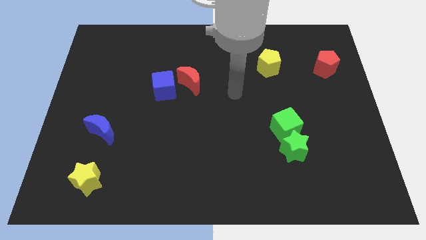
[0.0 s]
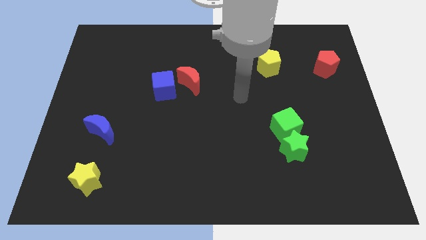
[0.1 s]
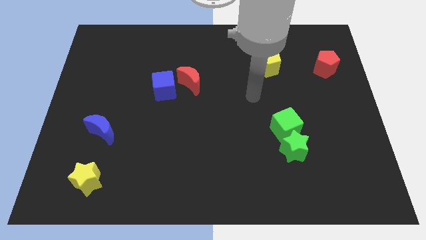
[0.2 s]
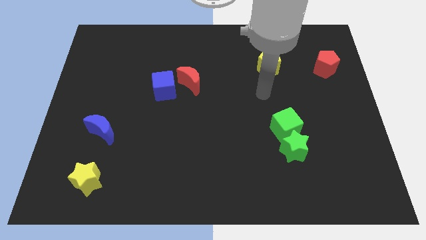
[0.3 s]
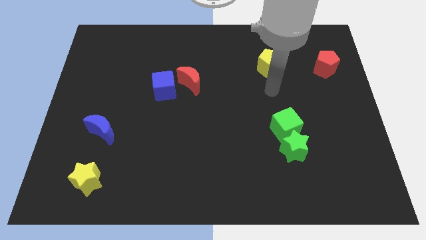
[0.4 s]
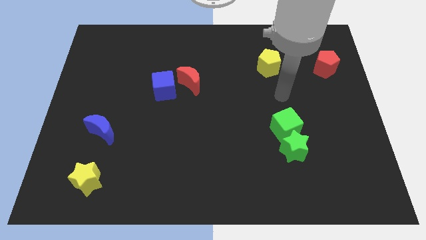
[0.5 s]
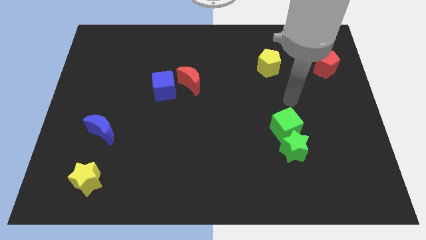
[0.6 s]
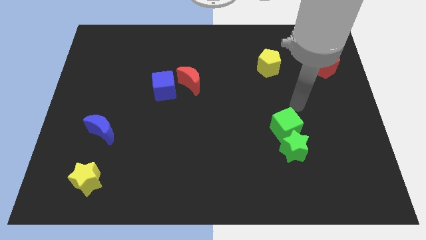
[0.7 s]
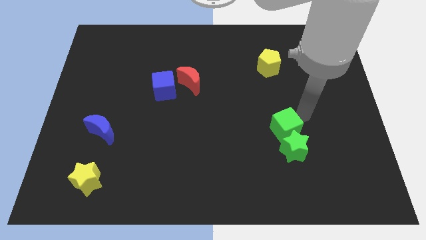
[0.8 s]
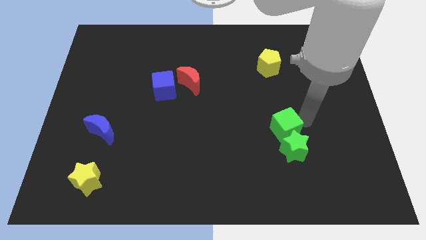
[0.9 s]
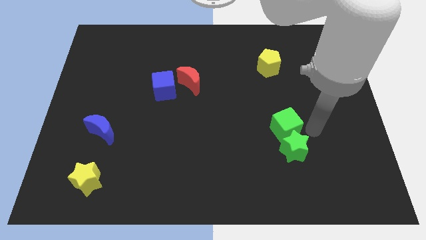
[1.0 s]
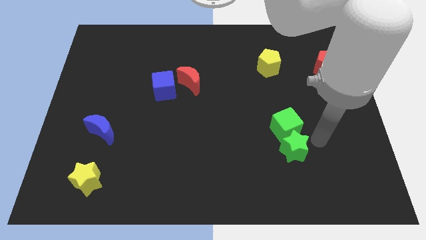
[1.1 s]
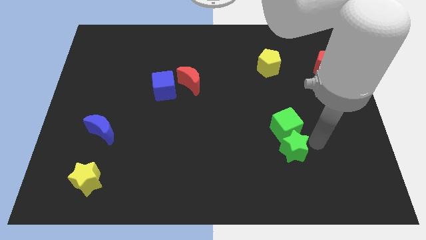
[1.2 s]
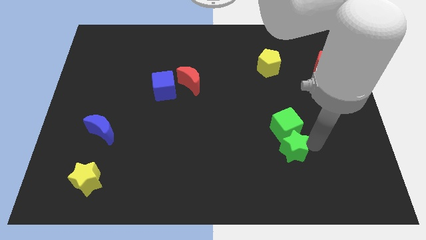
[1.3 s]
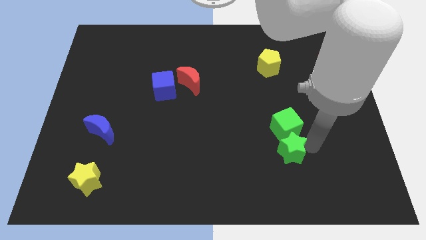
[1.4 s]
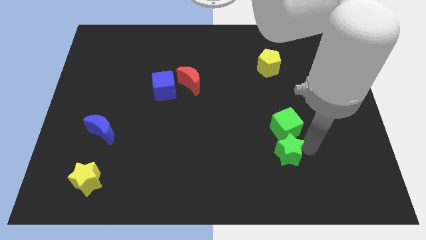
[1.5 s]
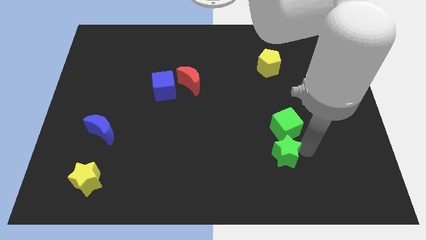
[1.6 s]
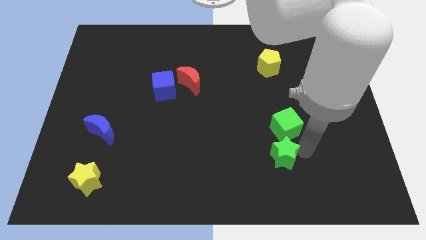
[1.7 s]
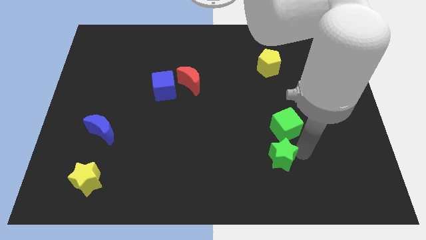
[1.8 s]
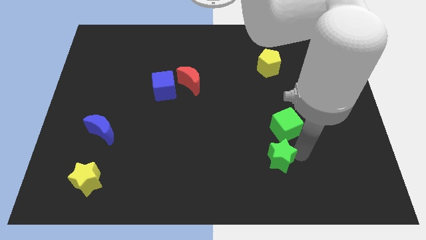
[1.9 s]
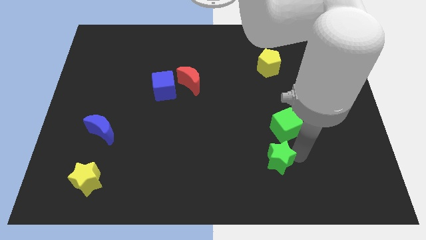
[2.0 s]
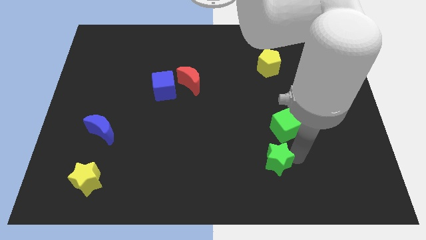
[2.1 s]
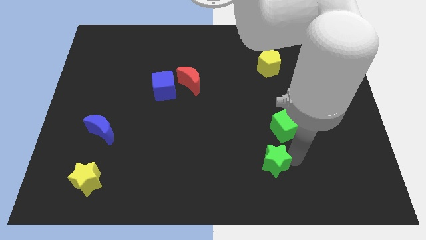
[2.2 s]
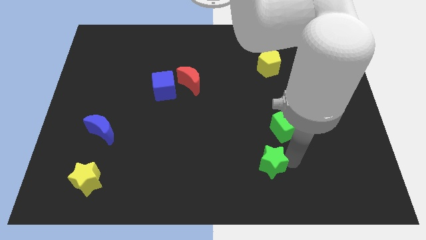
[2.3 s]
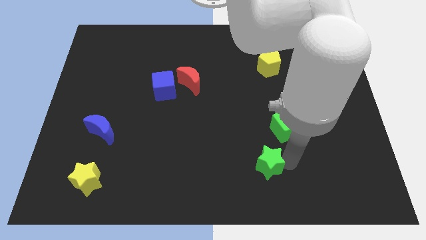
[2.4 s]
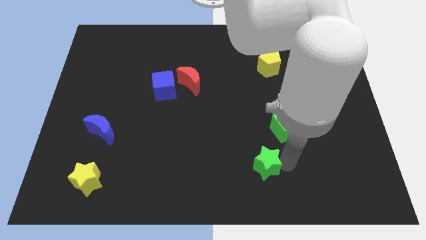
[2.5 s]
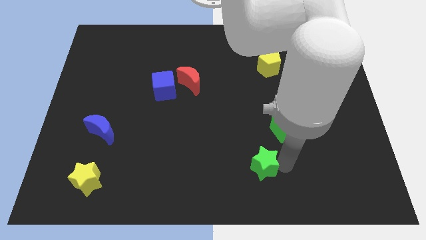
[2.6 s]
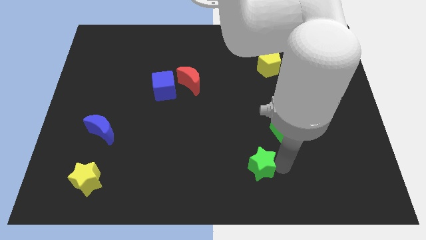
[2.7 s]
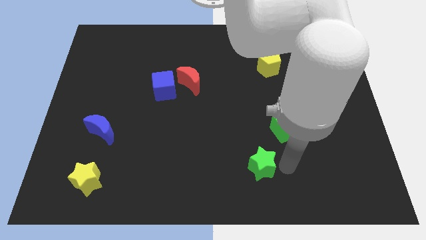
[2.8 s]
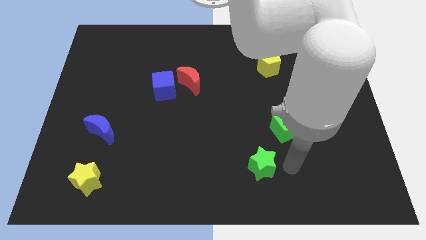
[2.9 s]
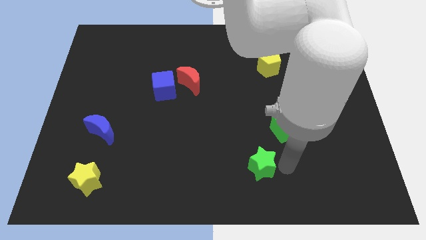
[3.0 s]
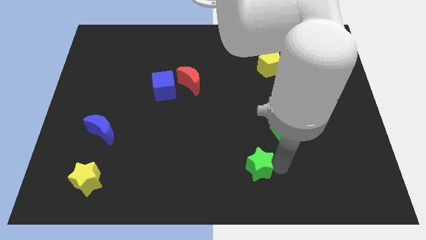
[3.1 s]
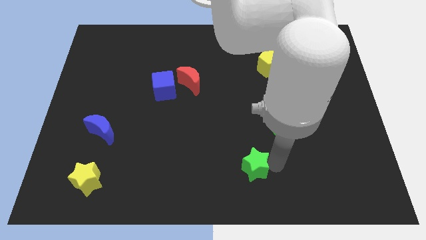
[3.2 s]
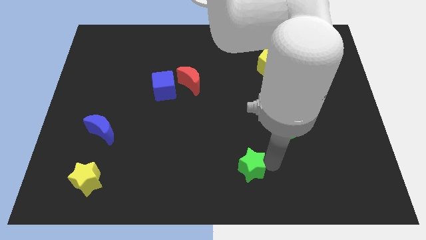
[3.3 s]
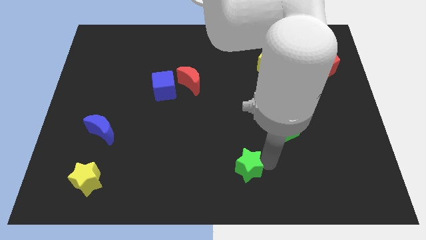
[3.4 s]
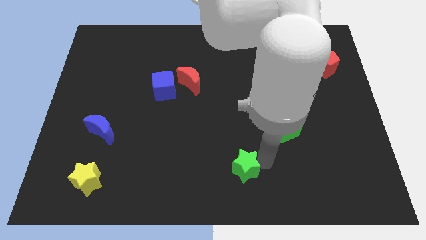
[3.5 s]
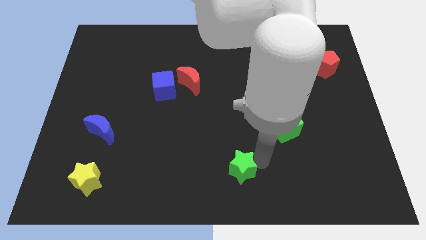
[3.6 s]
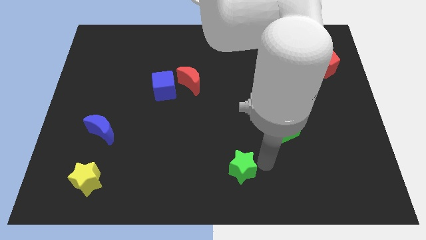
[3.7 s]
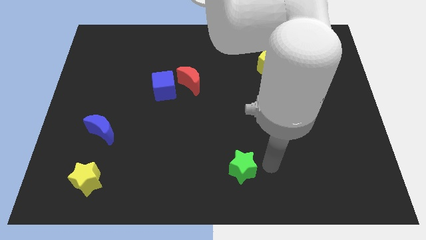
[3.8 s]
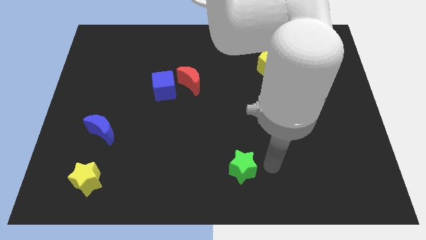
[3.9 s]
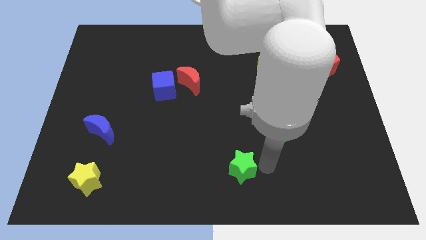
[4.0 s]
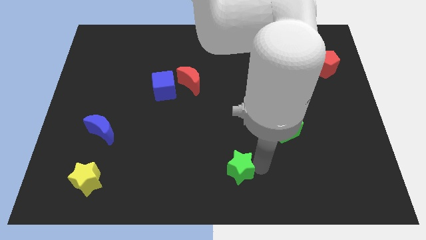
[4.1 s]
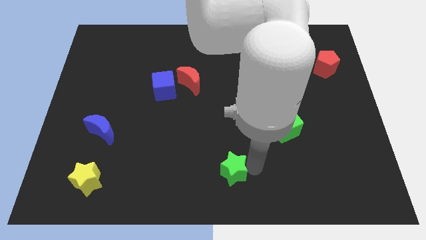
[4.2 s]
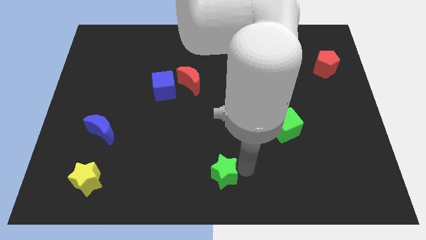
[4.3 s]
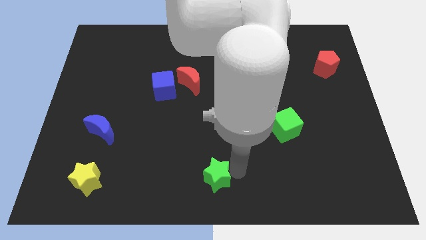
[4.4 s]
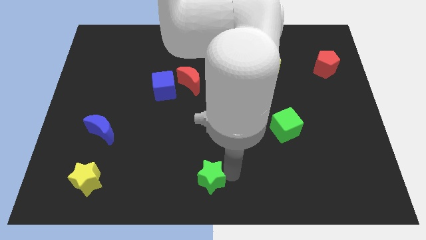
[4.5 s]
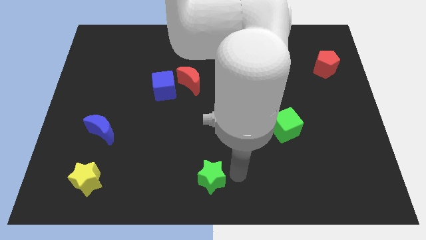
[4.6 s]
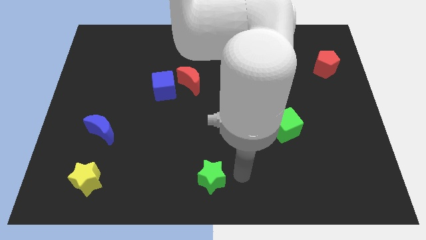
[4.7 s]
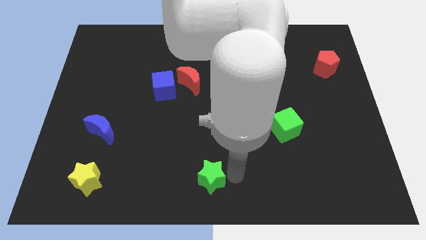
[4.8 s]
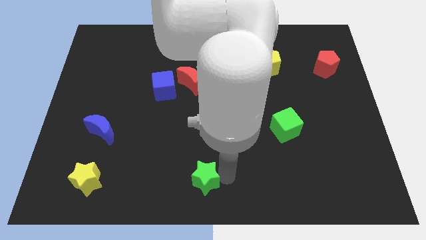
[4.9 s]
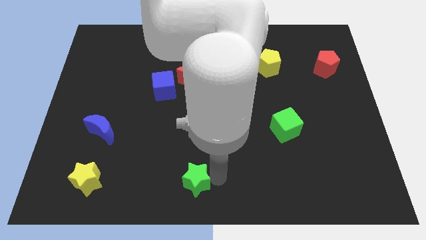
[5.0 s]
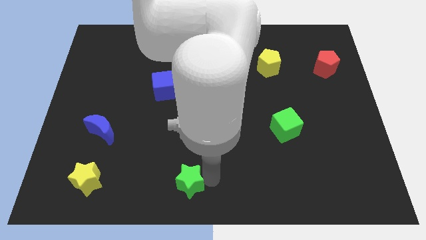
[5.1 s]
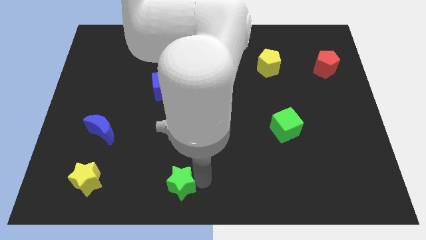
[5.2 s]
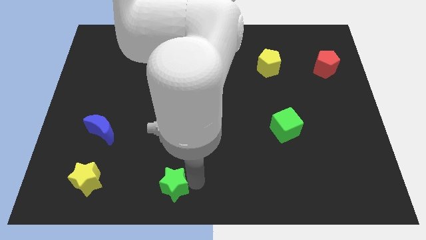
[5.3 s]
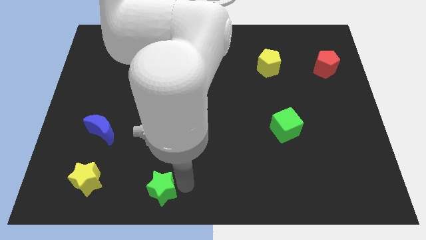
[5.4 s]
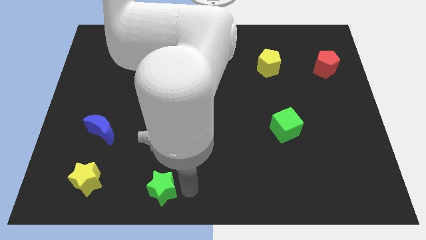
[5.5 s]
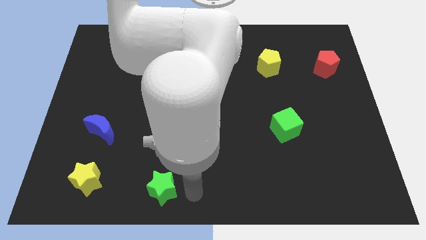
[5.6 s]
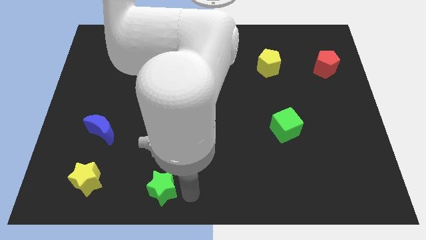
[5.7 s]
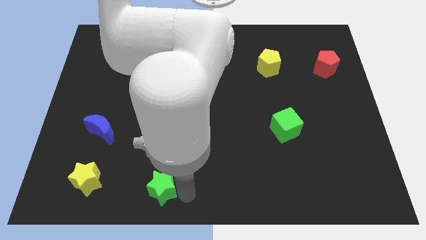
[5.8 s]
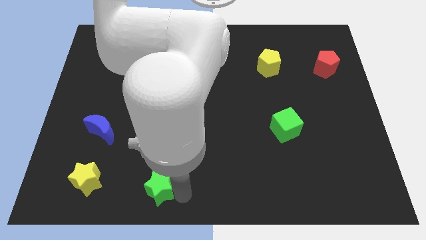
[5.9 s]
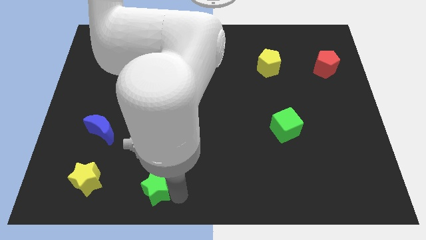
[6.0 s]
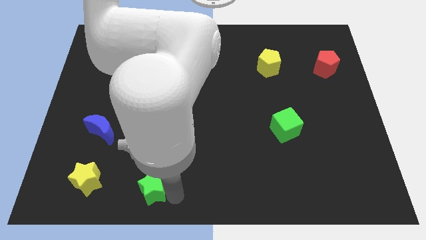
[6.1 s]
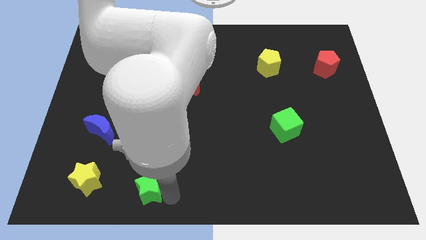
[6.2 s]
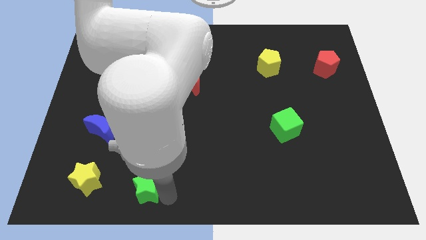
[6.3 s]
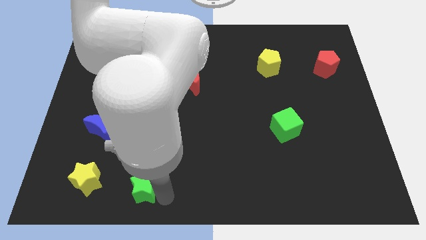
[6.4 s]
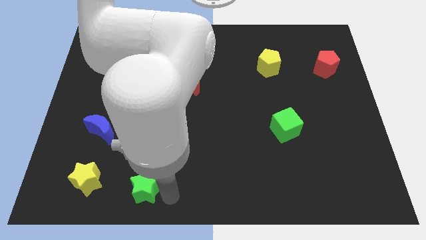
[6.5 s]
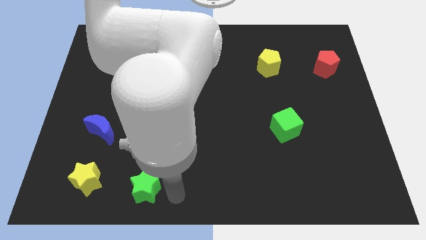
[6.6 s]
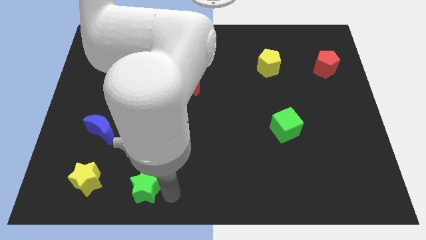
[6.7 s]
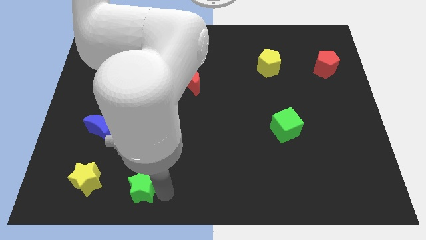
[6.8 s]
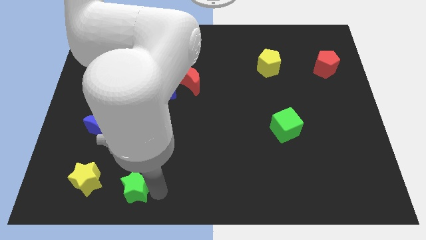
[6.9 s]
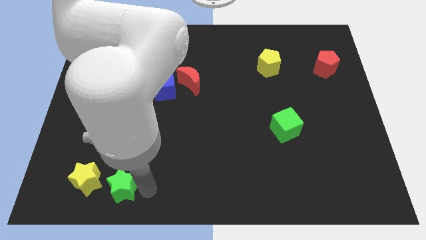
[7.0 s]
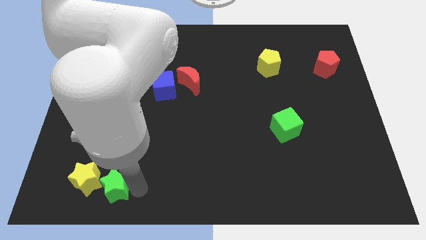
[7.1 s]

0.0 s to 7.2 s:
push the green star to the yellow star

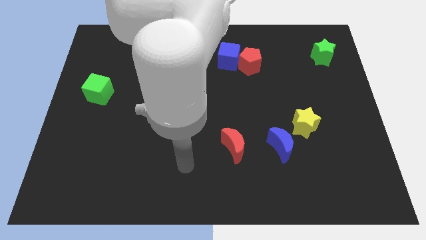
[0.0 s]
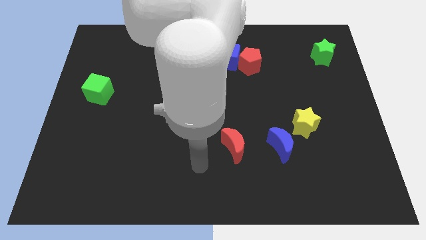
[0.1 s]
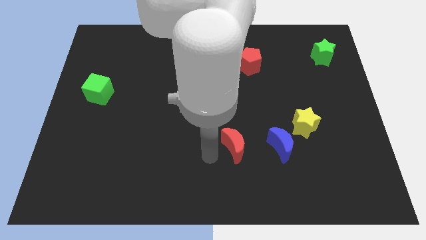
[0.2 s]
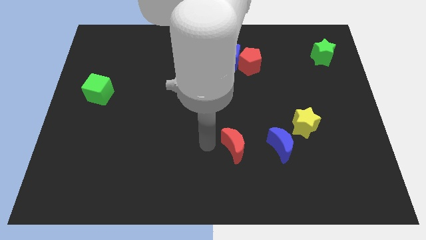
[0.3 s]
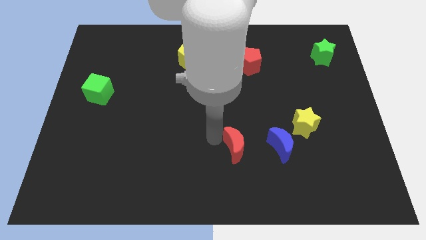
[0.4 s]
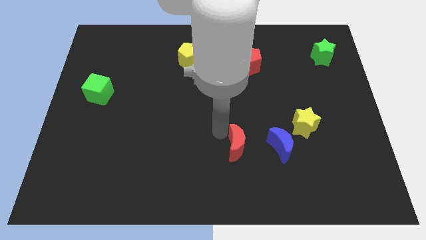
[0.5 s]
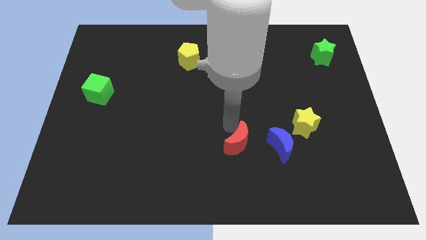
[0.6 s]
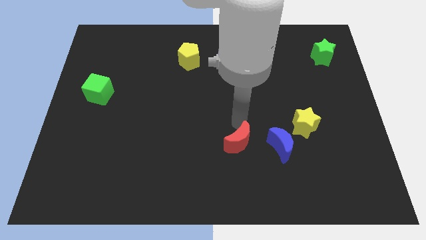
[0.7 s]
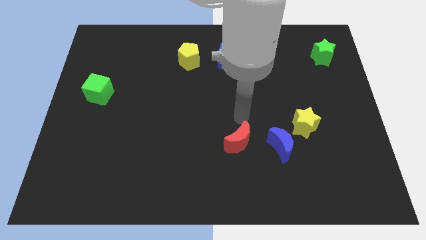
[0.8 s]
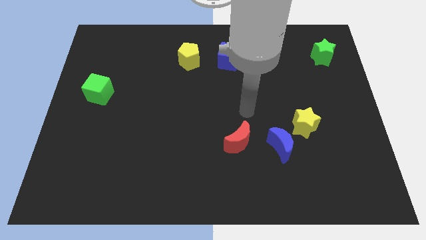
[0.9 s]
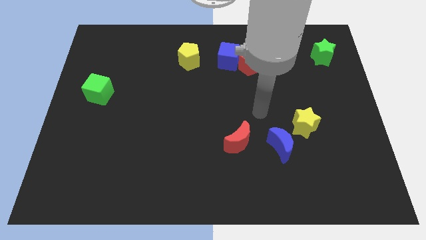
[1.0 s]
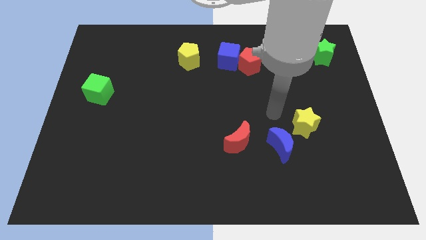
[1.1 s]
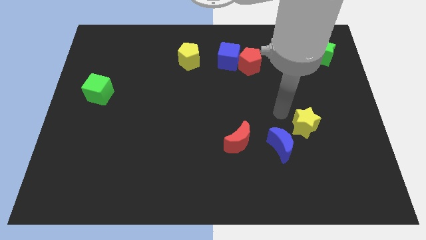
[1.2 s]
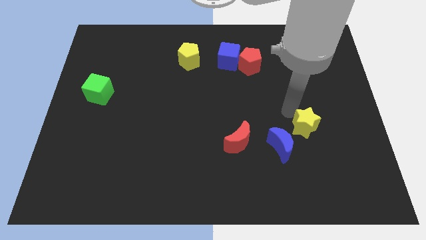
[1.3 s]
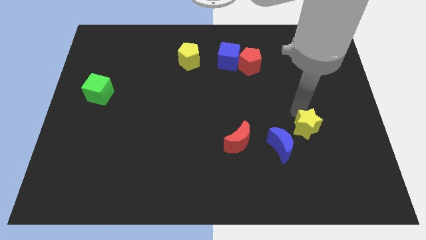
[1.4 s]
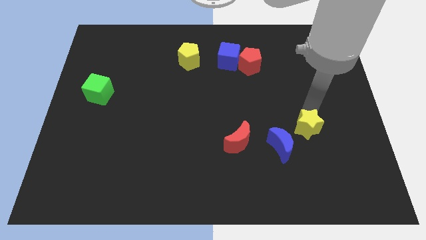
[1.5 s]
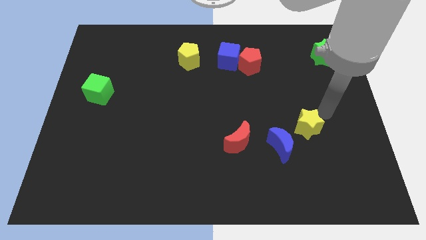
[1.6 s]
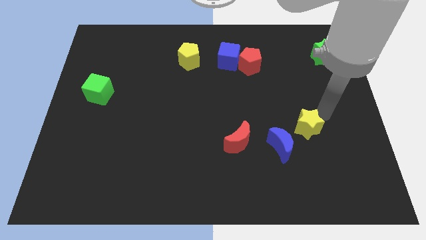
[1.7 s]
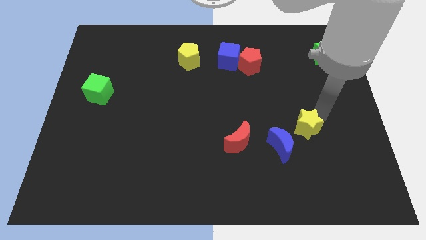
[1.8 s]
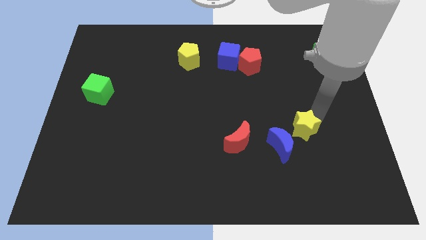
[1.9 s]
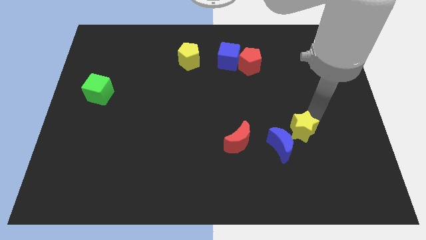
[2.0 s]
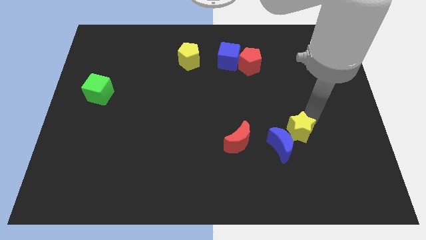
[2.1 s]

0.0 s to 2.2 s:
put the yellow star towards the blue moon
